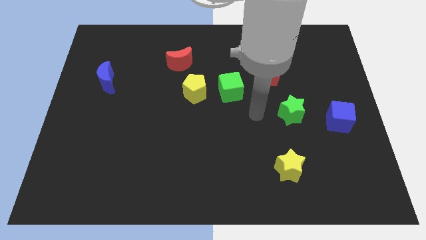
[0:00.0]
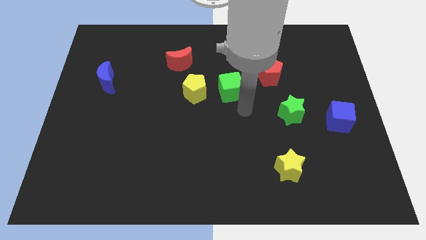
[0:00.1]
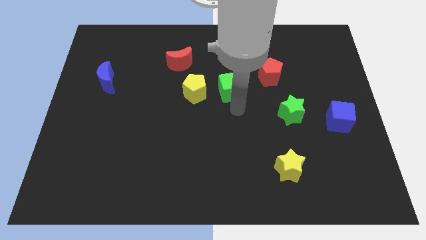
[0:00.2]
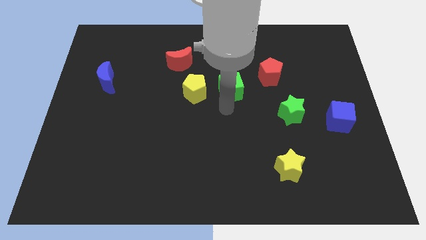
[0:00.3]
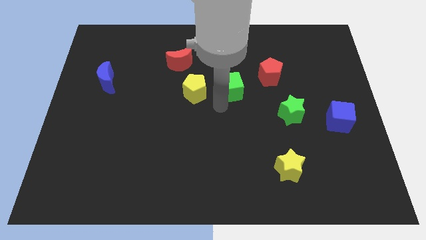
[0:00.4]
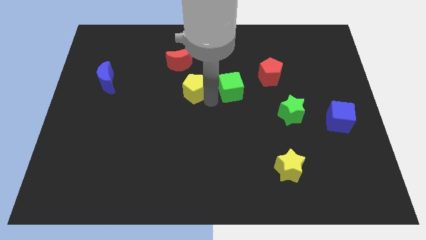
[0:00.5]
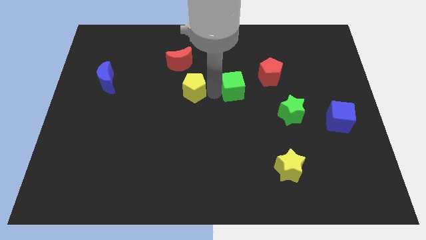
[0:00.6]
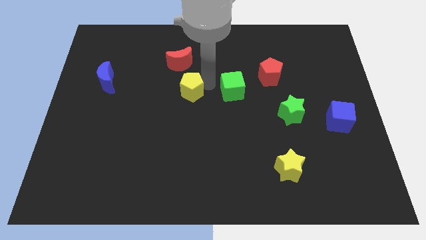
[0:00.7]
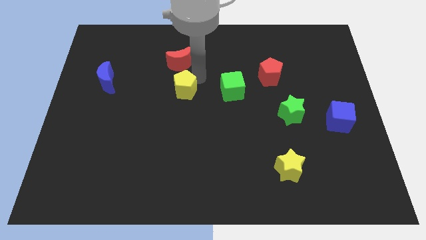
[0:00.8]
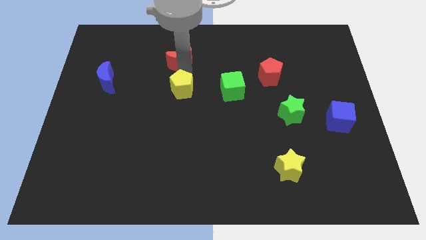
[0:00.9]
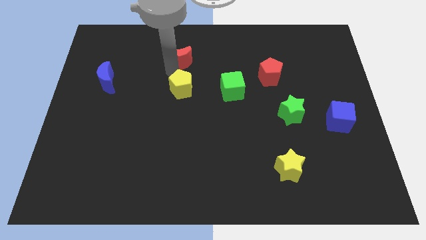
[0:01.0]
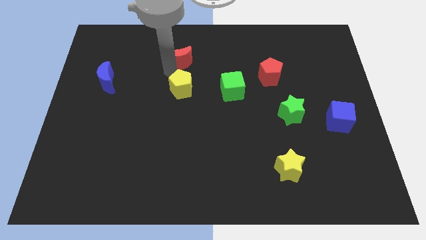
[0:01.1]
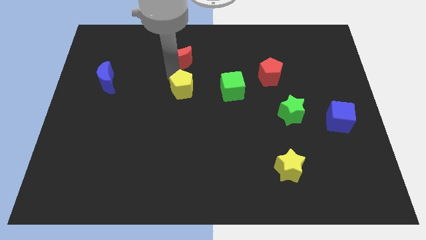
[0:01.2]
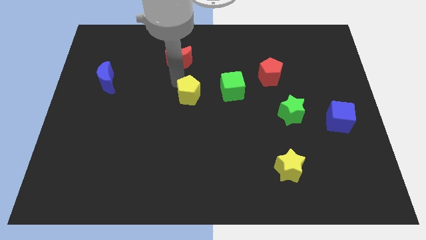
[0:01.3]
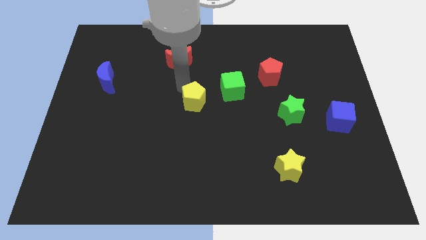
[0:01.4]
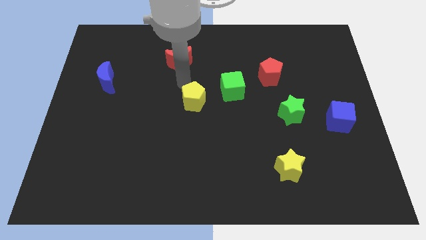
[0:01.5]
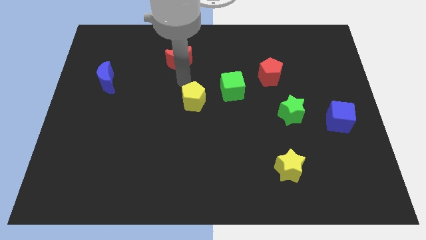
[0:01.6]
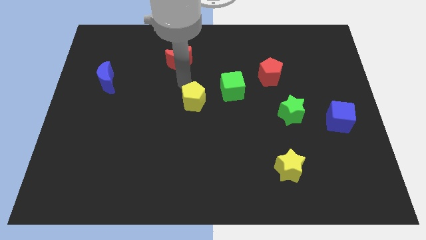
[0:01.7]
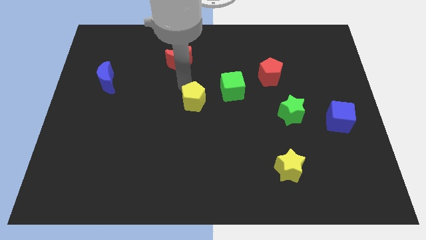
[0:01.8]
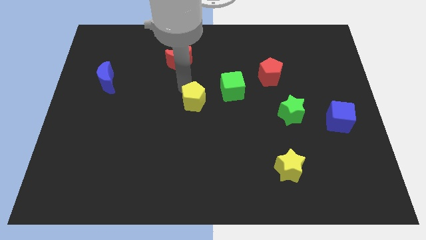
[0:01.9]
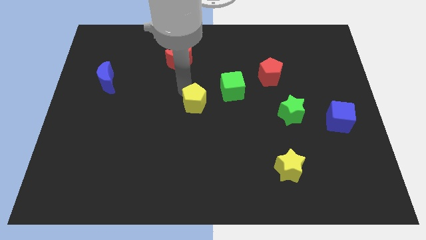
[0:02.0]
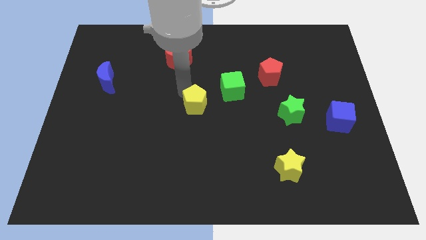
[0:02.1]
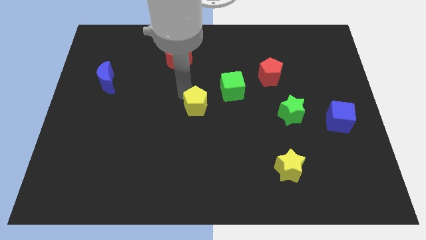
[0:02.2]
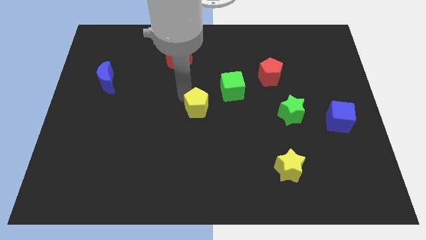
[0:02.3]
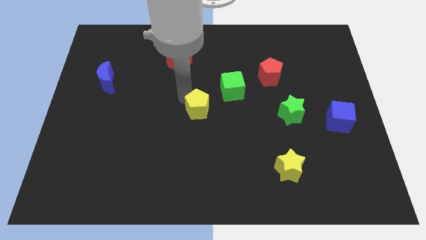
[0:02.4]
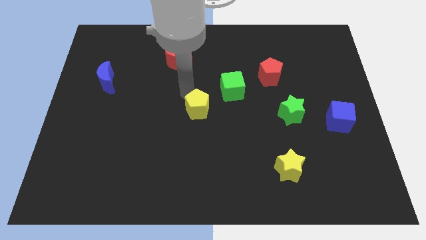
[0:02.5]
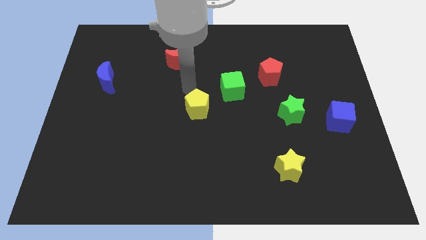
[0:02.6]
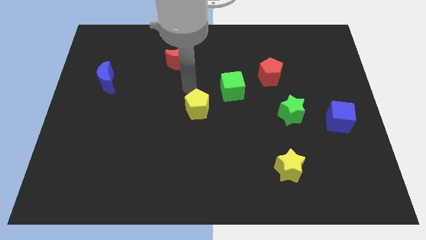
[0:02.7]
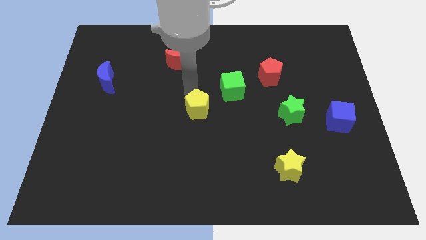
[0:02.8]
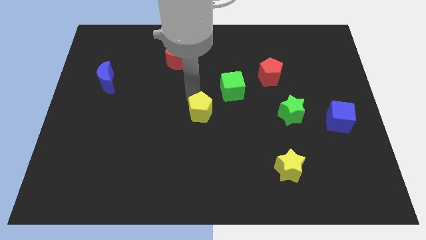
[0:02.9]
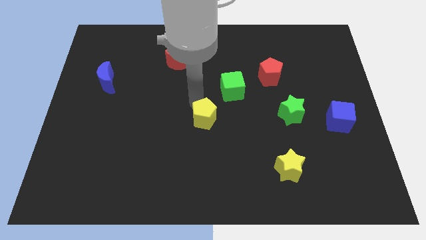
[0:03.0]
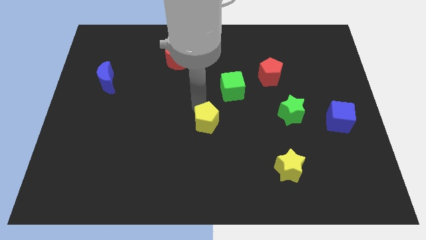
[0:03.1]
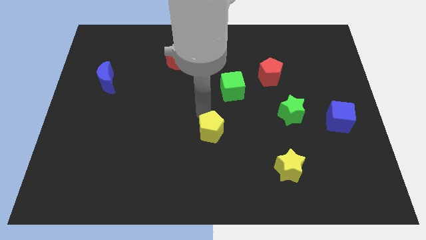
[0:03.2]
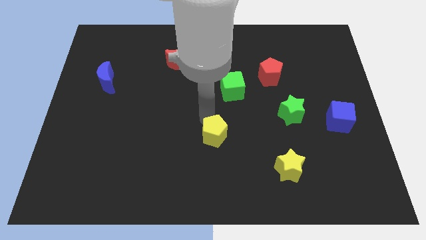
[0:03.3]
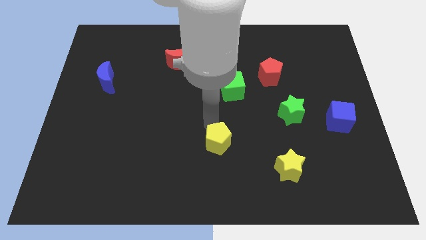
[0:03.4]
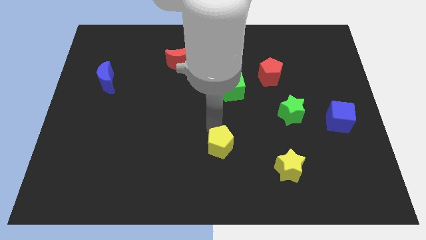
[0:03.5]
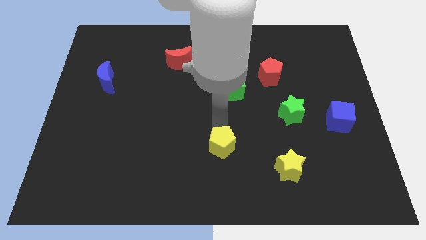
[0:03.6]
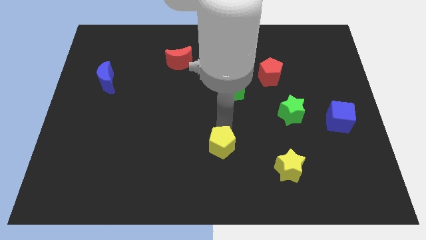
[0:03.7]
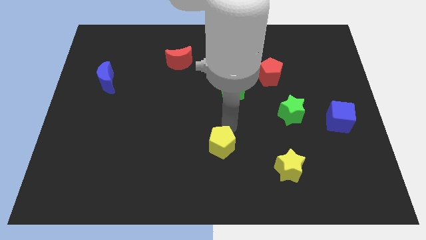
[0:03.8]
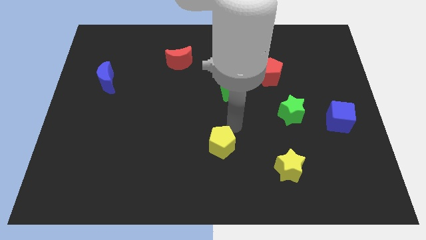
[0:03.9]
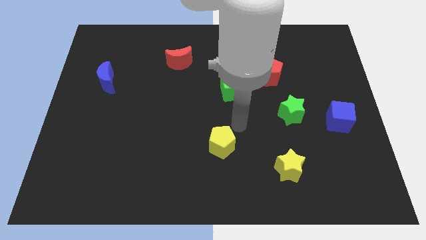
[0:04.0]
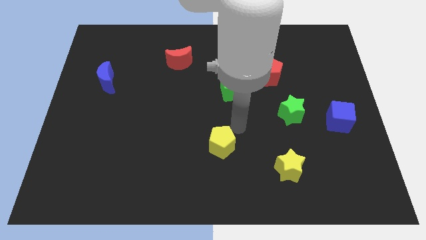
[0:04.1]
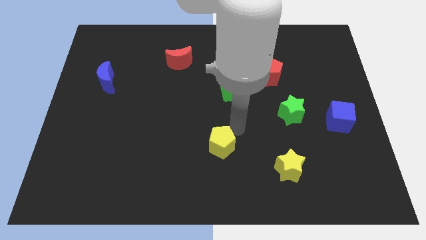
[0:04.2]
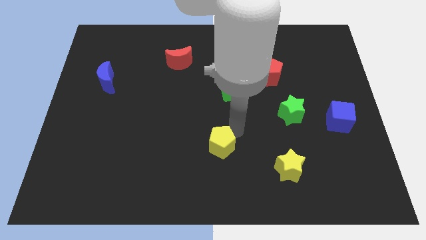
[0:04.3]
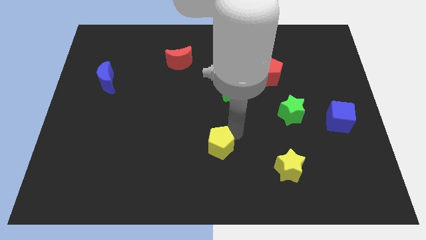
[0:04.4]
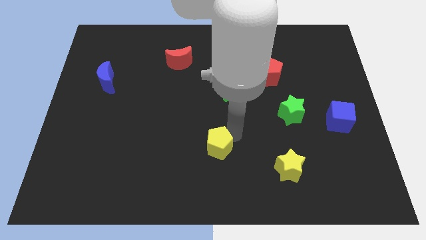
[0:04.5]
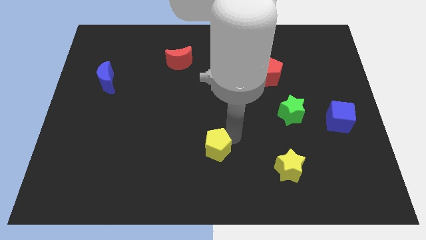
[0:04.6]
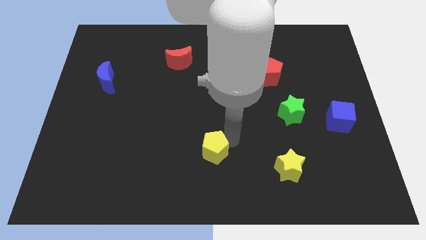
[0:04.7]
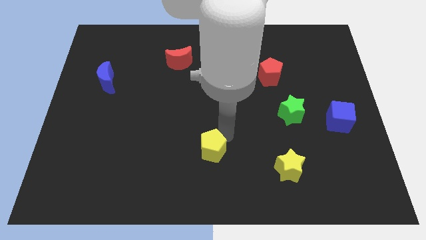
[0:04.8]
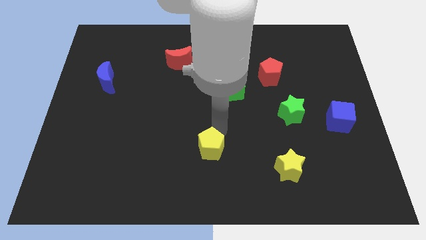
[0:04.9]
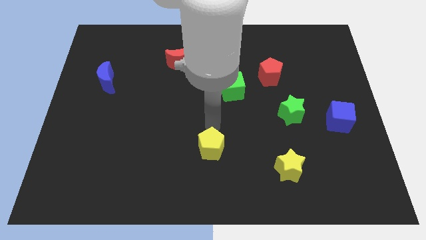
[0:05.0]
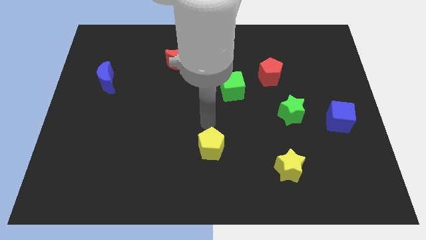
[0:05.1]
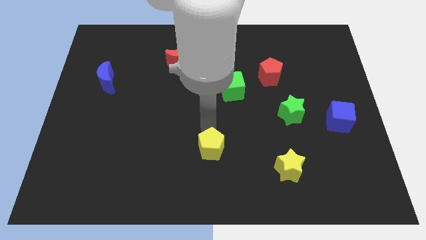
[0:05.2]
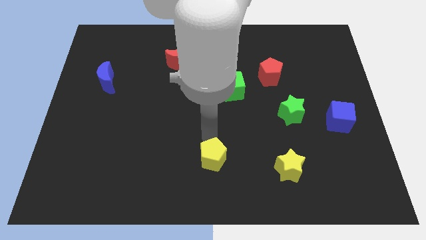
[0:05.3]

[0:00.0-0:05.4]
push the yellow pentagon to the bottom
